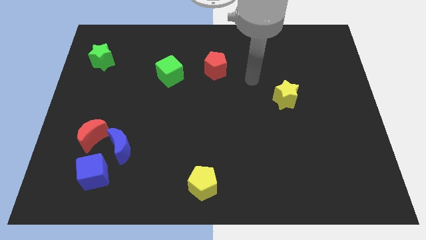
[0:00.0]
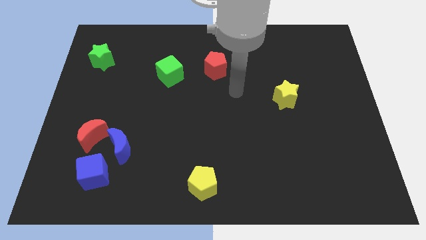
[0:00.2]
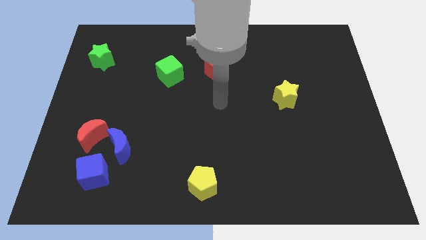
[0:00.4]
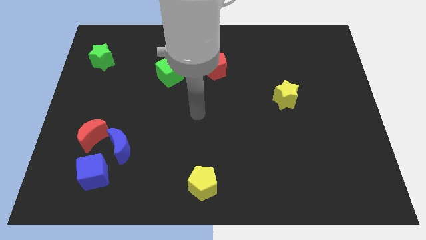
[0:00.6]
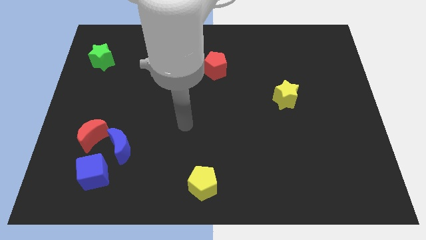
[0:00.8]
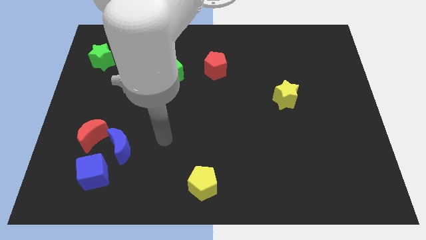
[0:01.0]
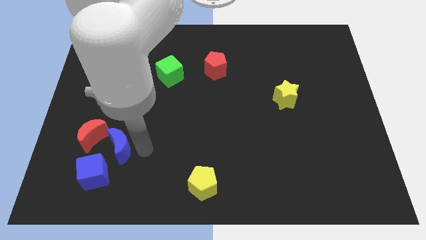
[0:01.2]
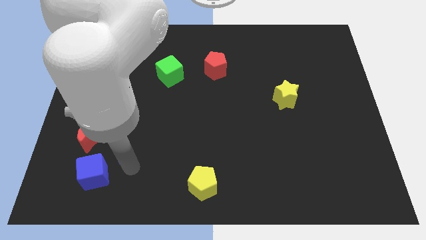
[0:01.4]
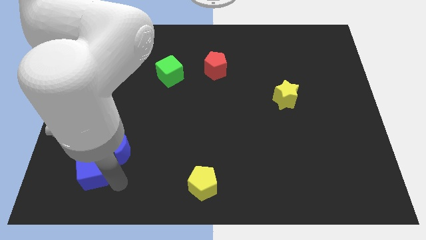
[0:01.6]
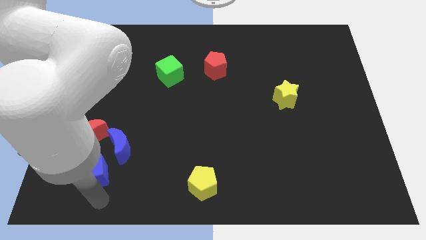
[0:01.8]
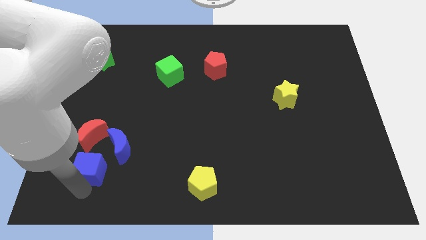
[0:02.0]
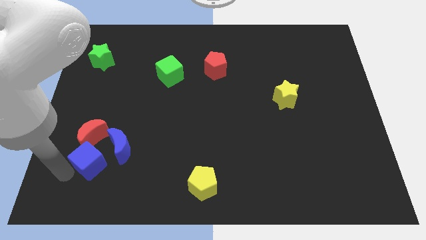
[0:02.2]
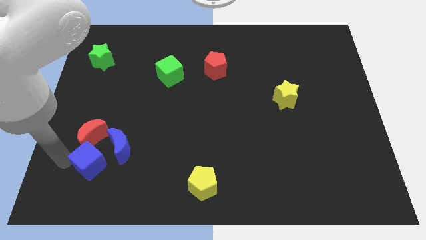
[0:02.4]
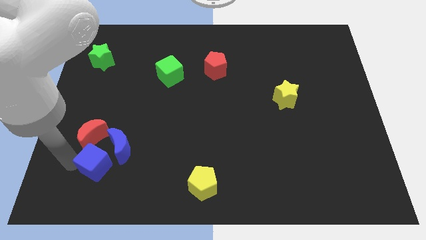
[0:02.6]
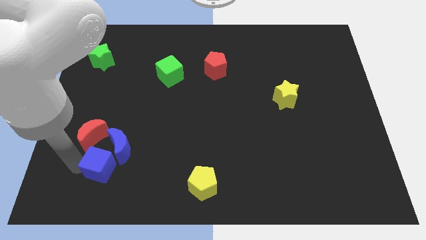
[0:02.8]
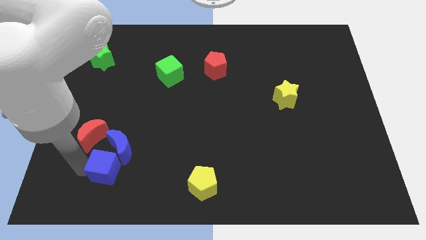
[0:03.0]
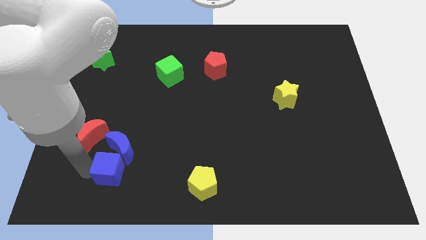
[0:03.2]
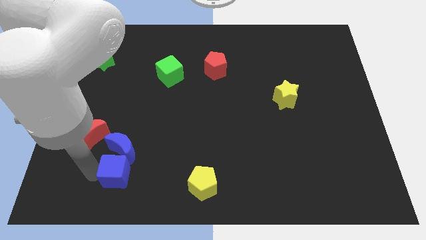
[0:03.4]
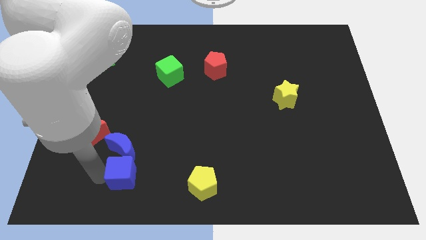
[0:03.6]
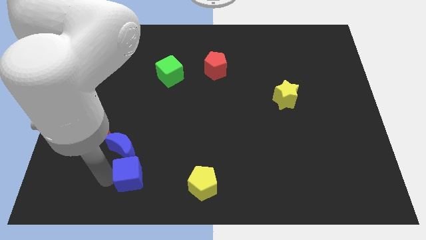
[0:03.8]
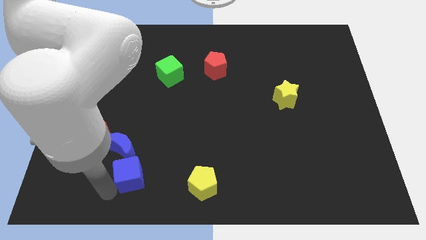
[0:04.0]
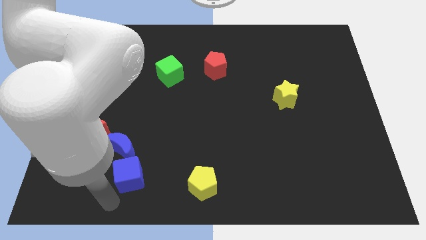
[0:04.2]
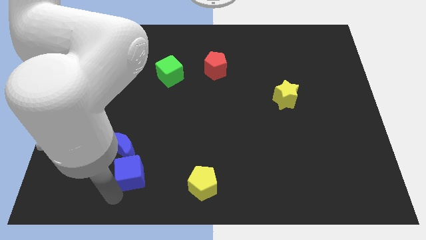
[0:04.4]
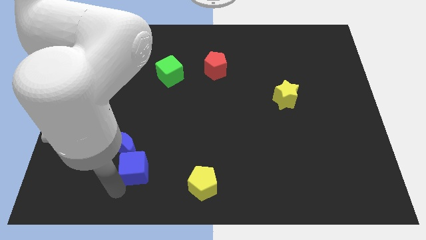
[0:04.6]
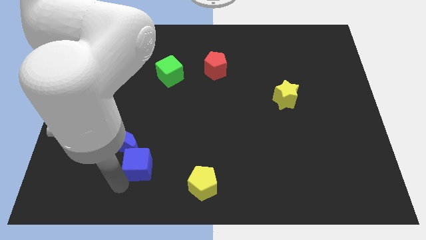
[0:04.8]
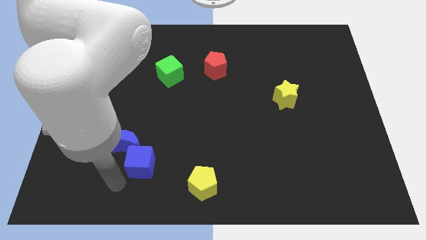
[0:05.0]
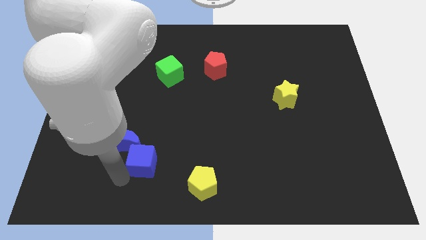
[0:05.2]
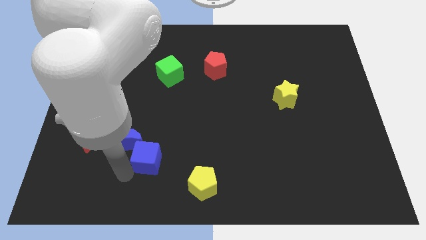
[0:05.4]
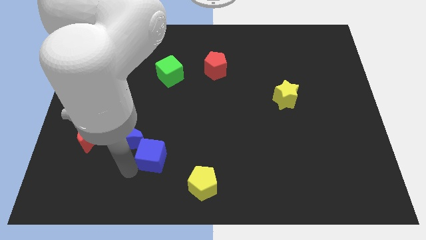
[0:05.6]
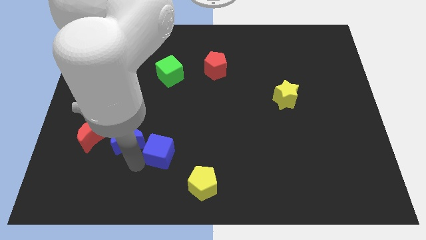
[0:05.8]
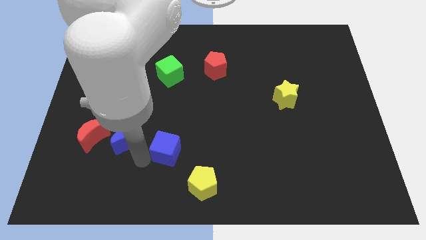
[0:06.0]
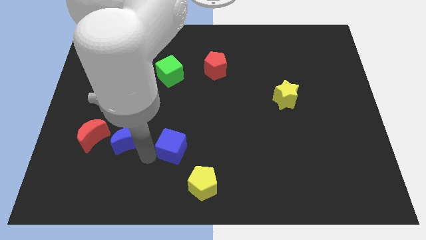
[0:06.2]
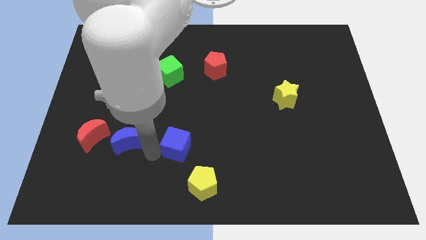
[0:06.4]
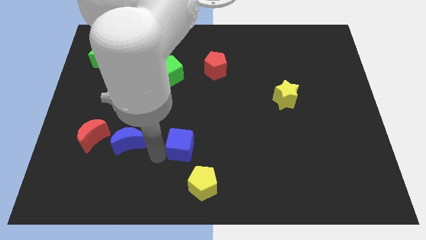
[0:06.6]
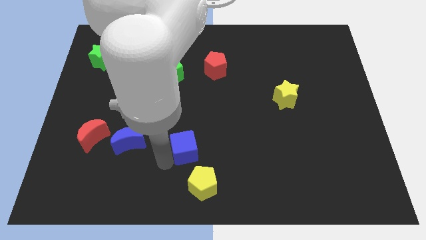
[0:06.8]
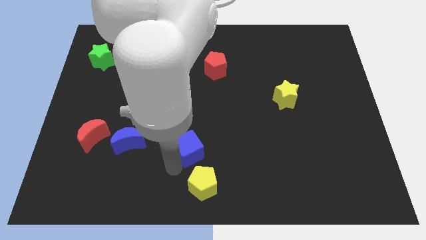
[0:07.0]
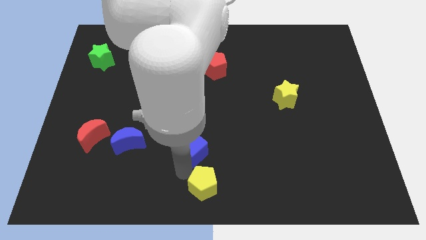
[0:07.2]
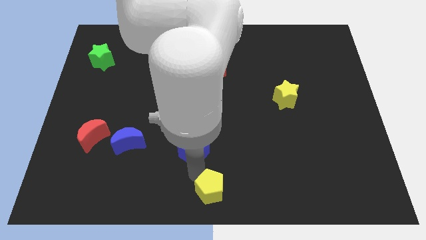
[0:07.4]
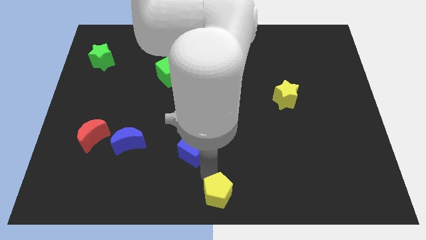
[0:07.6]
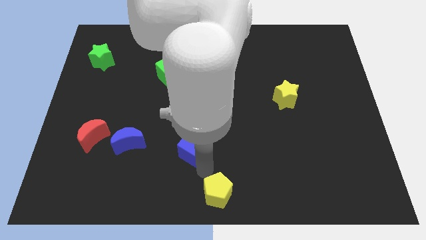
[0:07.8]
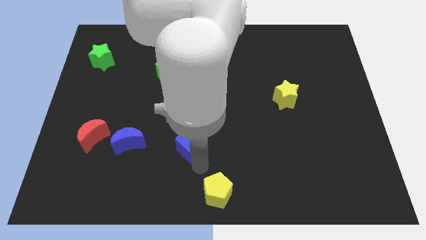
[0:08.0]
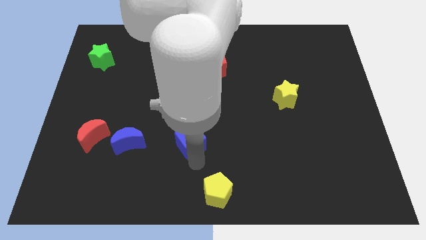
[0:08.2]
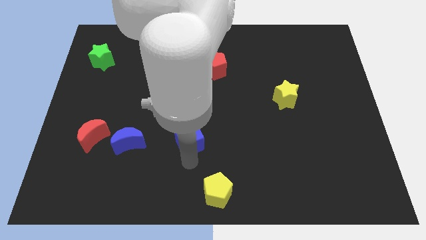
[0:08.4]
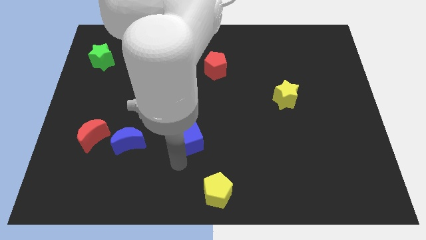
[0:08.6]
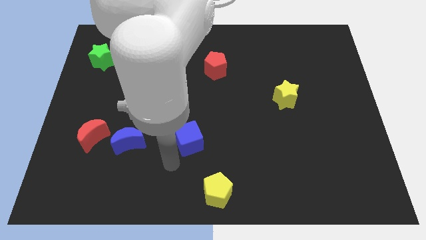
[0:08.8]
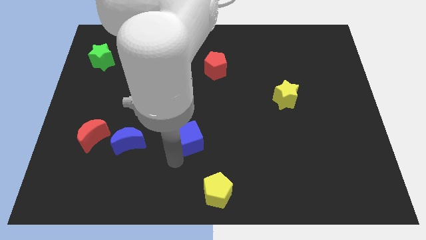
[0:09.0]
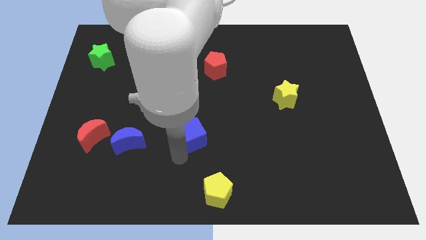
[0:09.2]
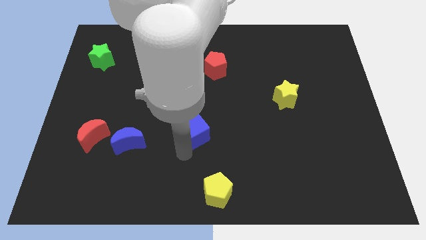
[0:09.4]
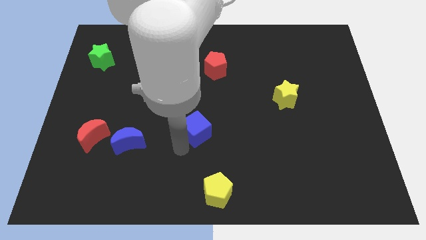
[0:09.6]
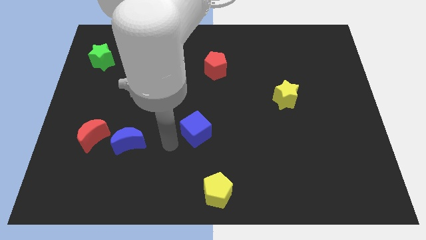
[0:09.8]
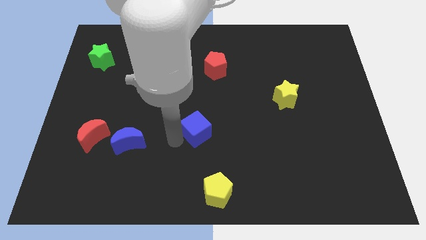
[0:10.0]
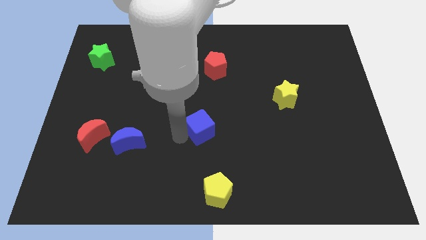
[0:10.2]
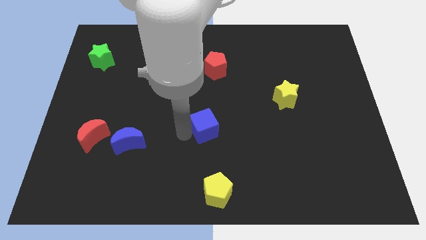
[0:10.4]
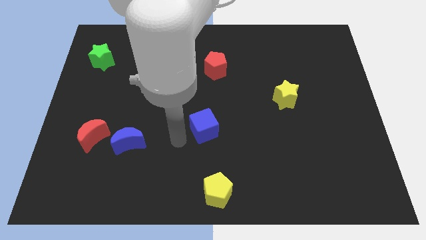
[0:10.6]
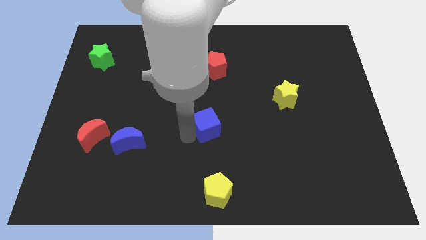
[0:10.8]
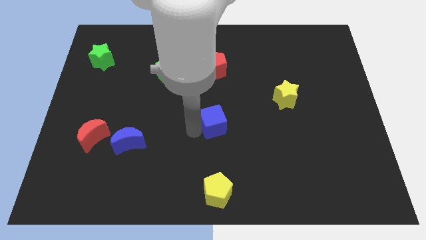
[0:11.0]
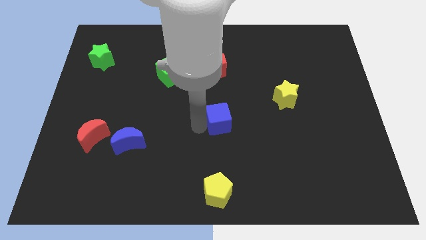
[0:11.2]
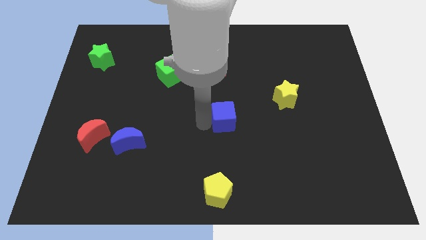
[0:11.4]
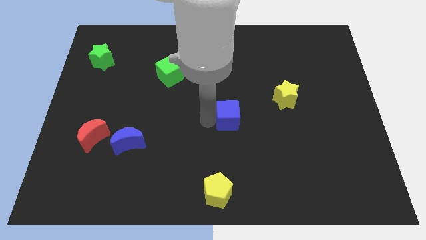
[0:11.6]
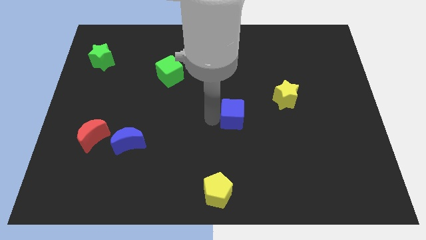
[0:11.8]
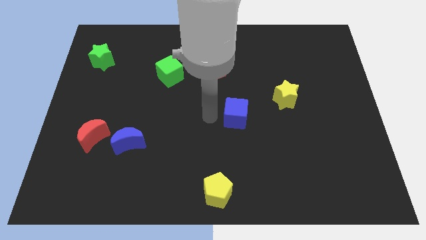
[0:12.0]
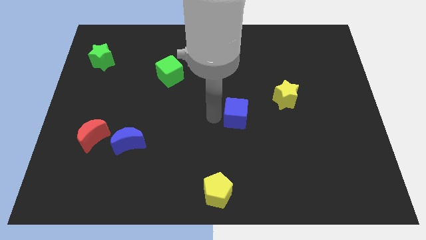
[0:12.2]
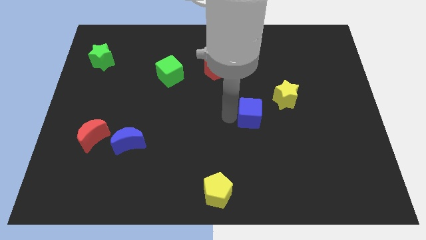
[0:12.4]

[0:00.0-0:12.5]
push the blue cube diagonally down and to the left of the yellow star

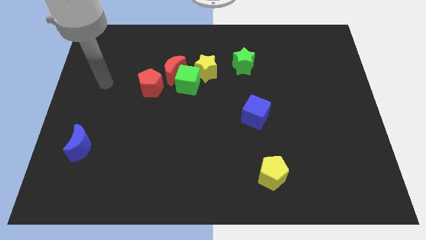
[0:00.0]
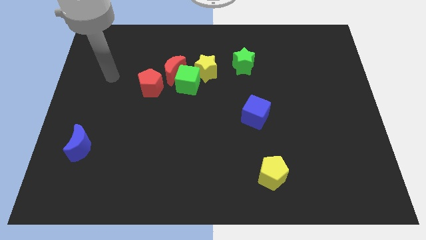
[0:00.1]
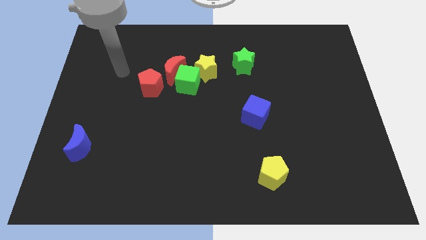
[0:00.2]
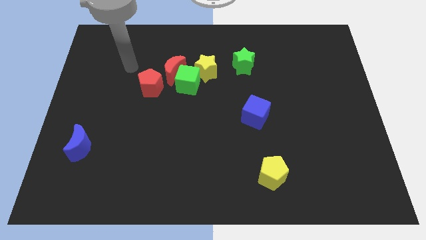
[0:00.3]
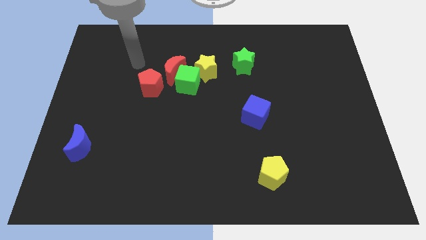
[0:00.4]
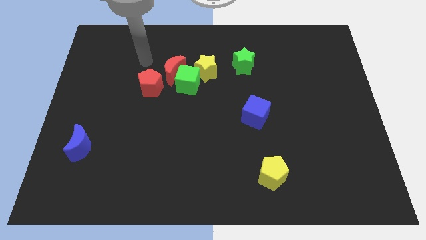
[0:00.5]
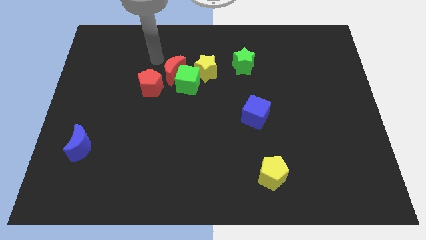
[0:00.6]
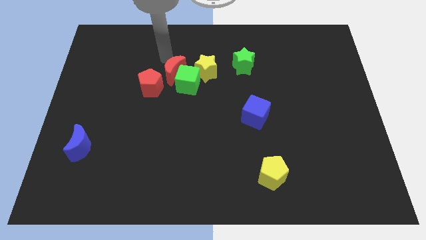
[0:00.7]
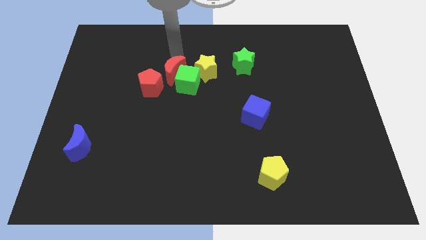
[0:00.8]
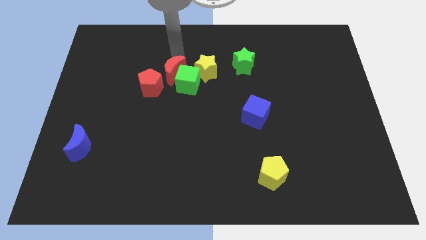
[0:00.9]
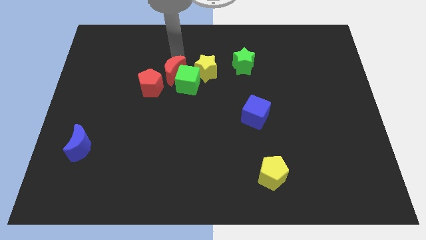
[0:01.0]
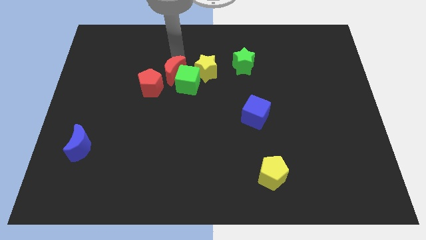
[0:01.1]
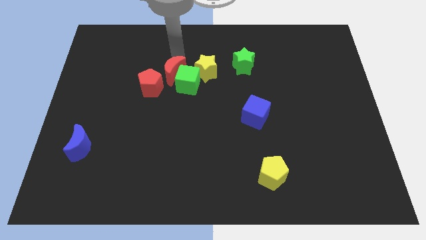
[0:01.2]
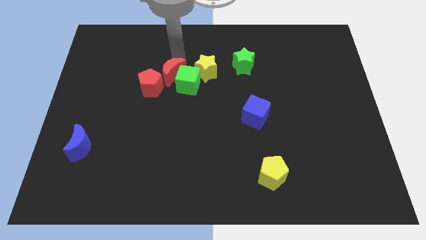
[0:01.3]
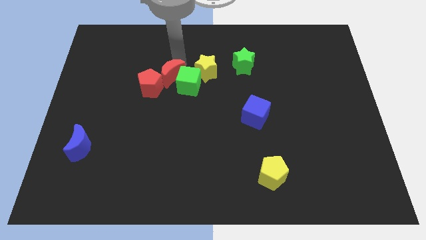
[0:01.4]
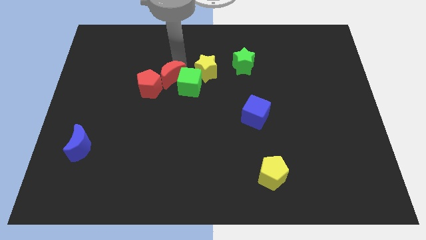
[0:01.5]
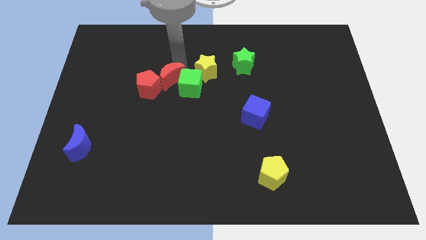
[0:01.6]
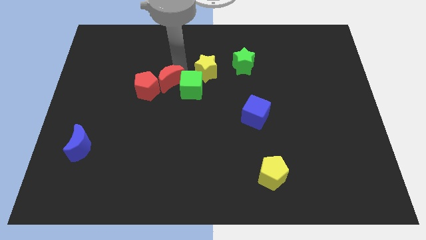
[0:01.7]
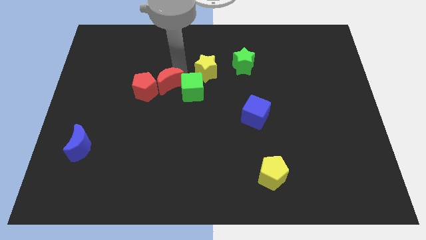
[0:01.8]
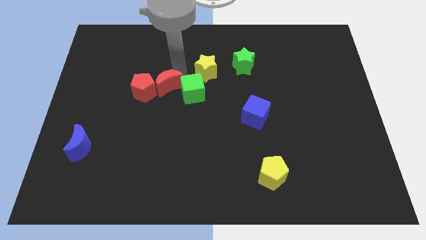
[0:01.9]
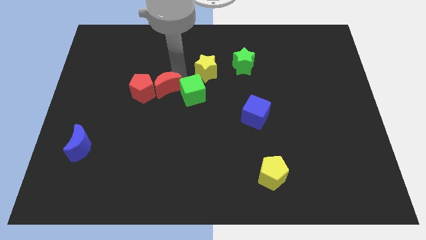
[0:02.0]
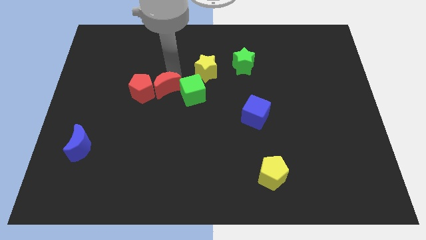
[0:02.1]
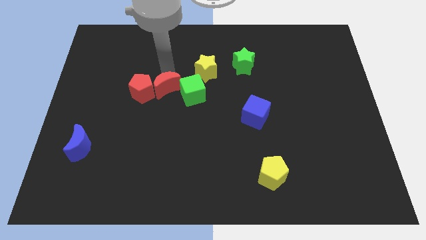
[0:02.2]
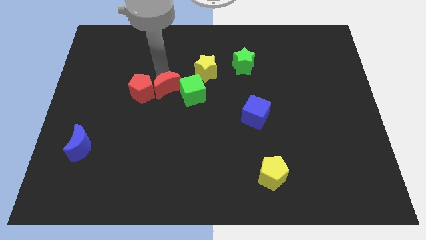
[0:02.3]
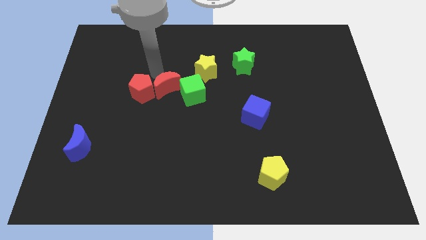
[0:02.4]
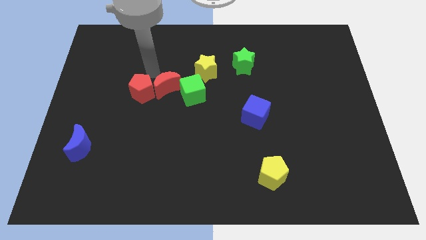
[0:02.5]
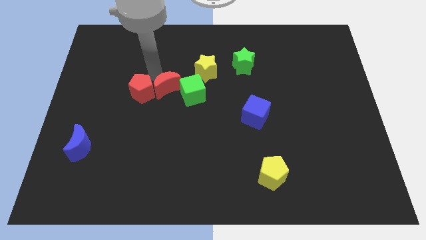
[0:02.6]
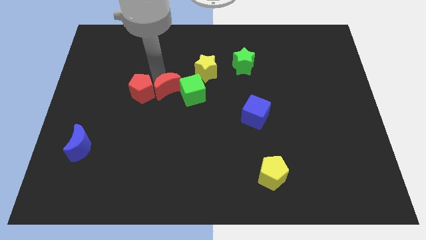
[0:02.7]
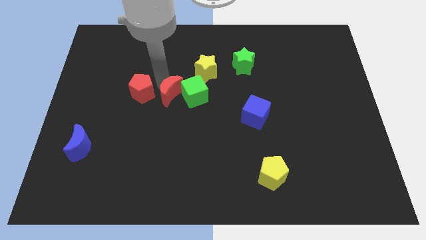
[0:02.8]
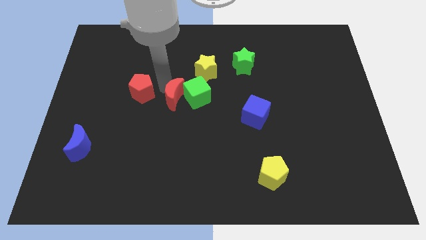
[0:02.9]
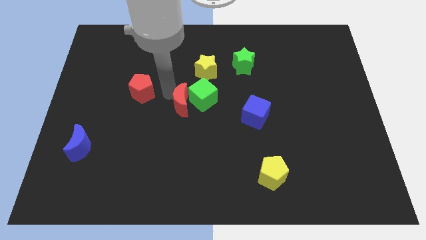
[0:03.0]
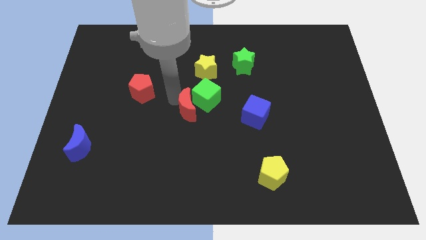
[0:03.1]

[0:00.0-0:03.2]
move the red moon just left of the blue cube
